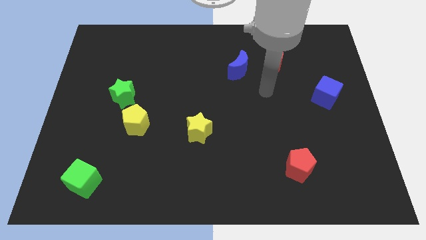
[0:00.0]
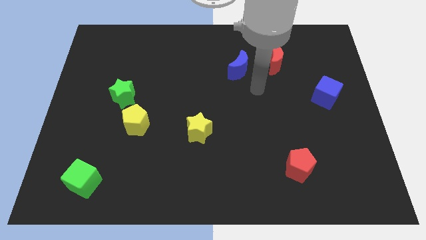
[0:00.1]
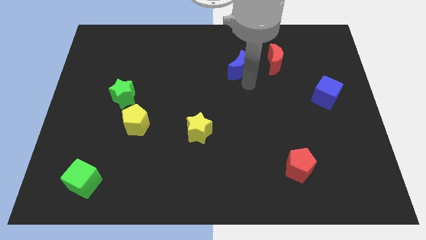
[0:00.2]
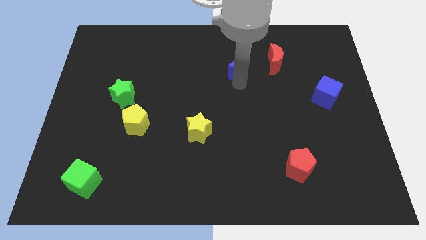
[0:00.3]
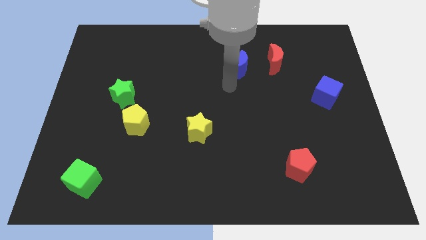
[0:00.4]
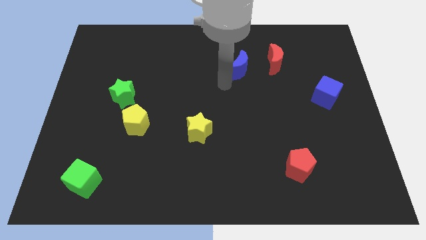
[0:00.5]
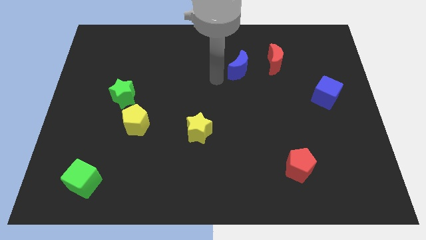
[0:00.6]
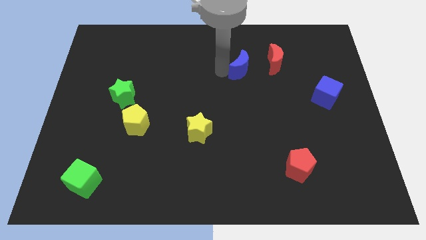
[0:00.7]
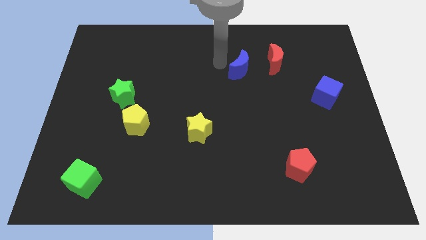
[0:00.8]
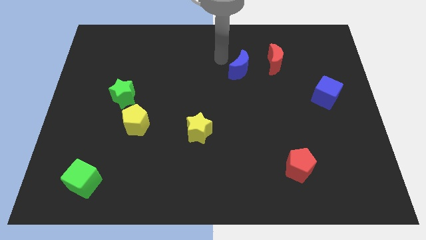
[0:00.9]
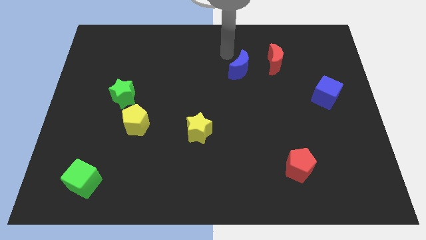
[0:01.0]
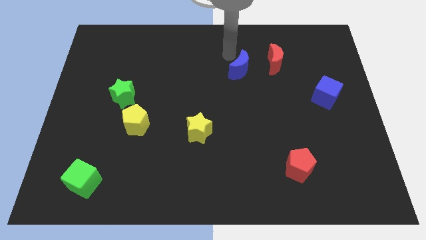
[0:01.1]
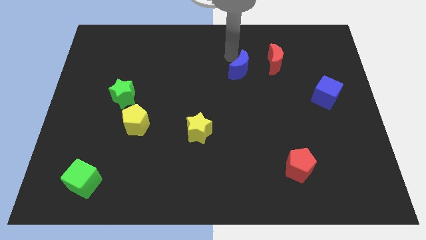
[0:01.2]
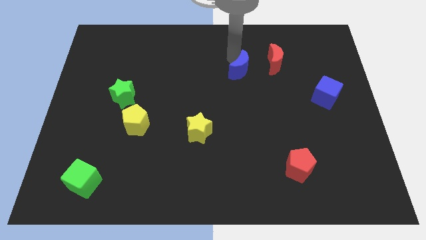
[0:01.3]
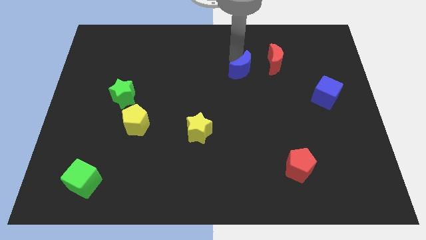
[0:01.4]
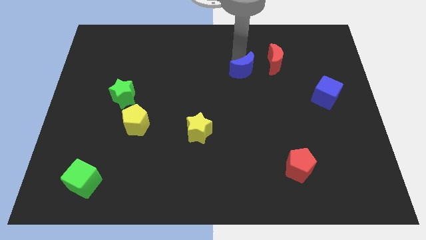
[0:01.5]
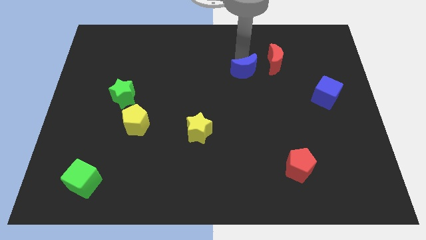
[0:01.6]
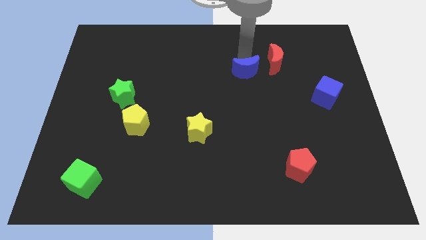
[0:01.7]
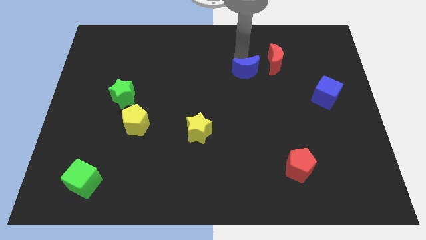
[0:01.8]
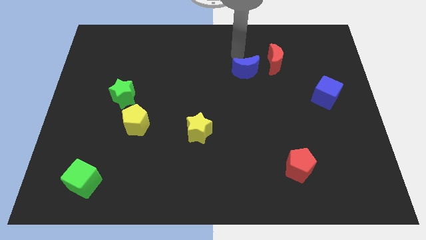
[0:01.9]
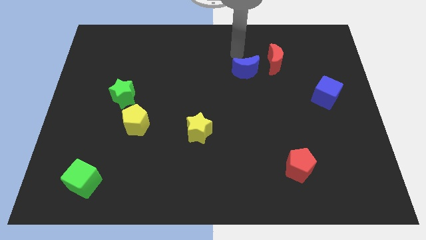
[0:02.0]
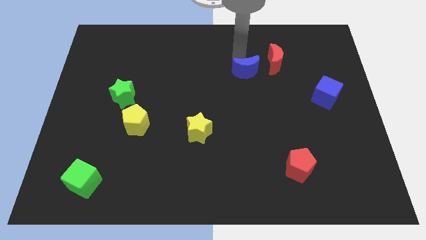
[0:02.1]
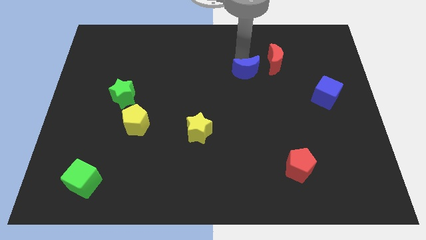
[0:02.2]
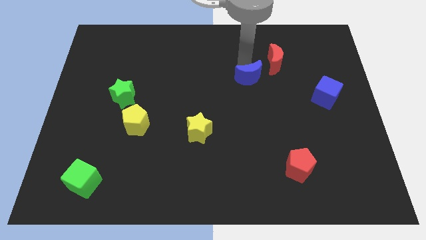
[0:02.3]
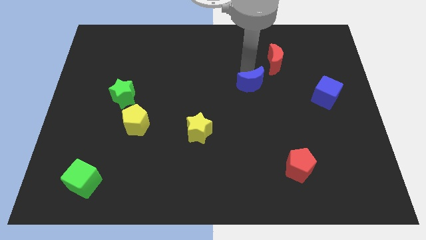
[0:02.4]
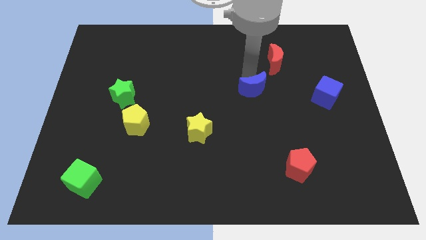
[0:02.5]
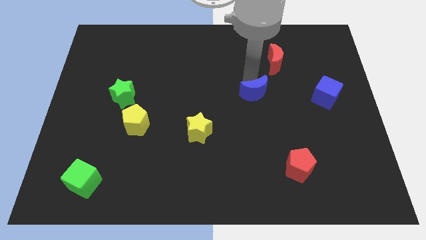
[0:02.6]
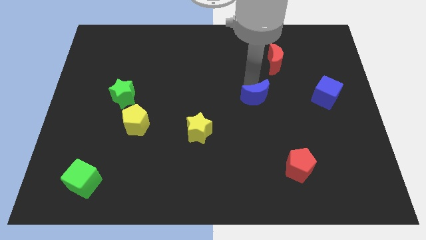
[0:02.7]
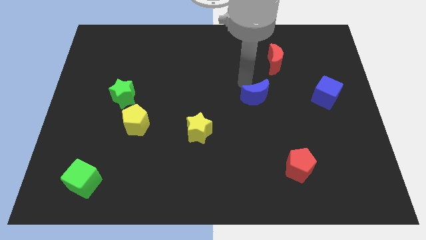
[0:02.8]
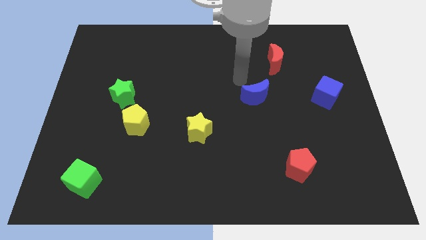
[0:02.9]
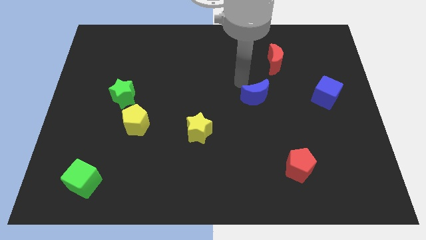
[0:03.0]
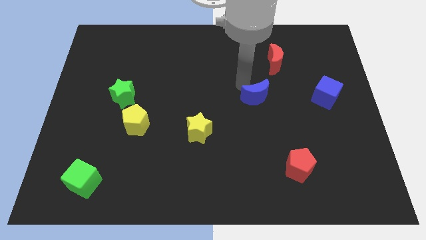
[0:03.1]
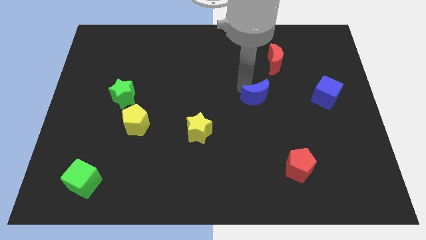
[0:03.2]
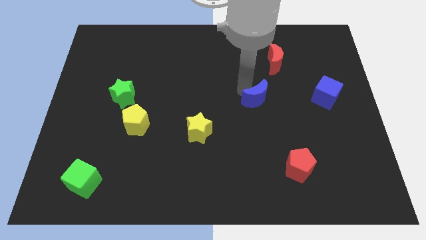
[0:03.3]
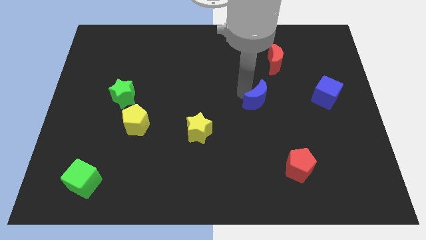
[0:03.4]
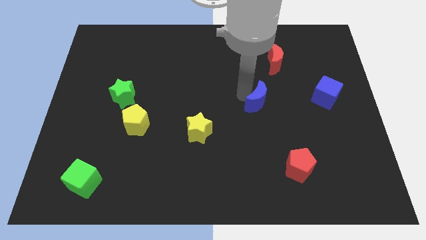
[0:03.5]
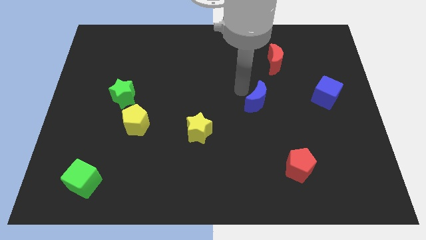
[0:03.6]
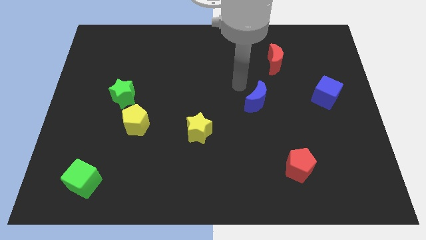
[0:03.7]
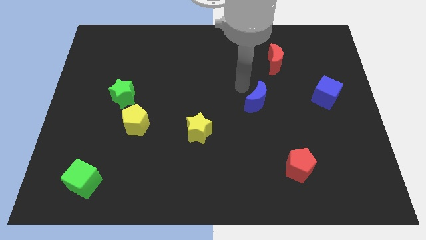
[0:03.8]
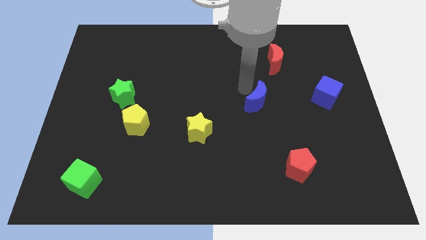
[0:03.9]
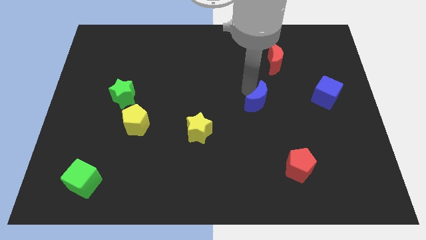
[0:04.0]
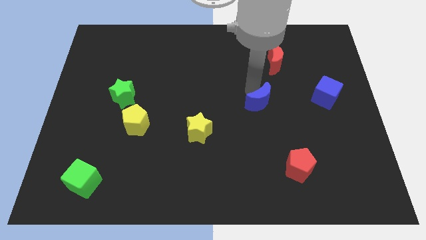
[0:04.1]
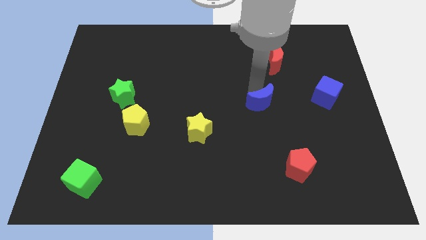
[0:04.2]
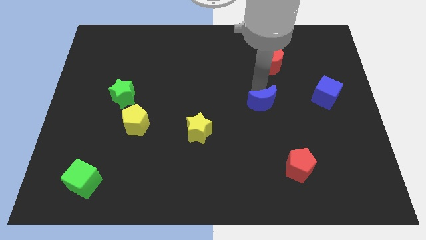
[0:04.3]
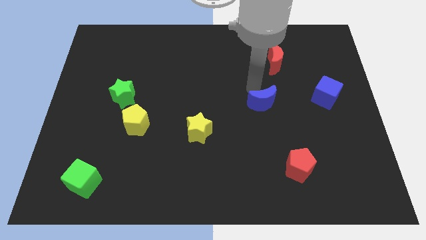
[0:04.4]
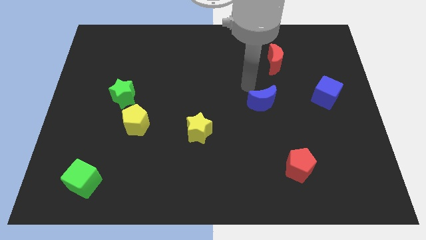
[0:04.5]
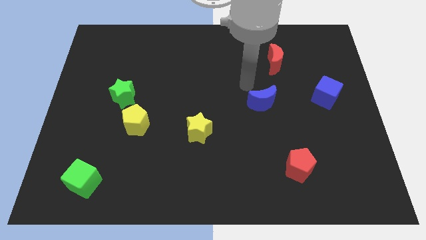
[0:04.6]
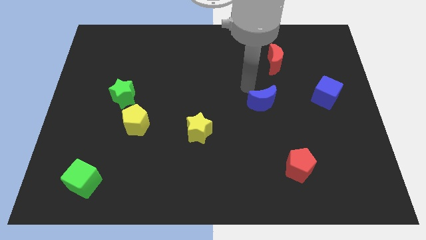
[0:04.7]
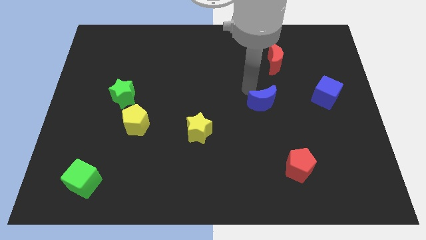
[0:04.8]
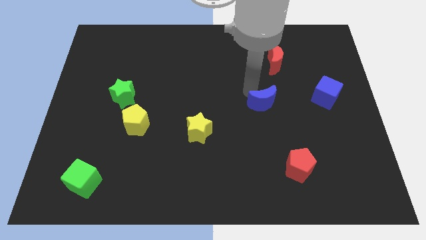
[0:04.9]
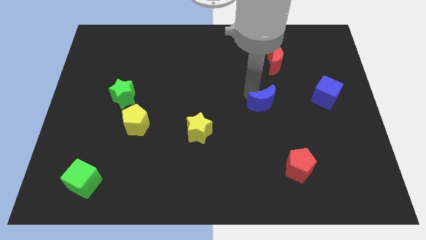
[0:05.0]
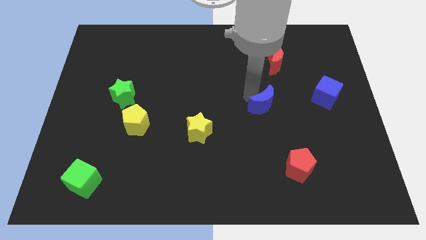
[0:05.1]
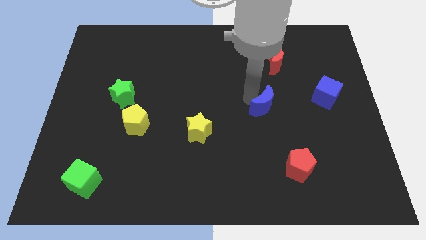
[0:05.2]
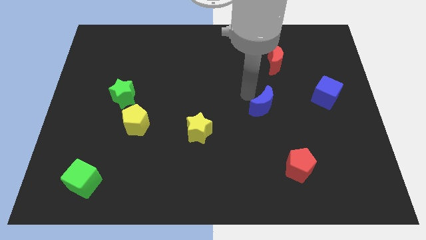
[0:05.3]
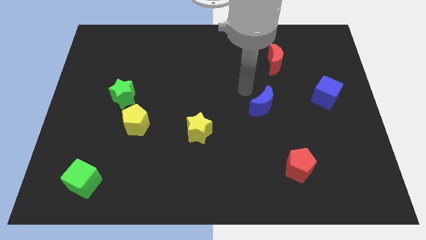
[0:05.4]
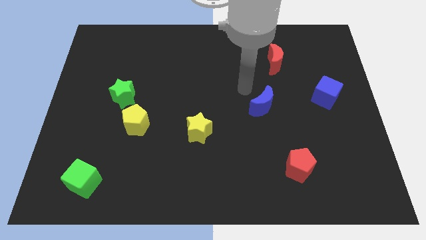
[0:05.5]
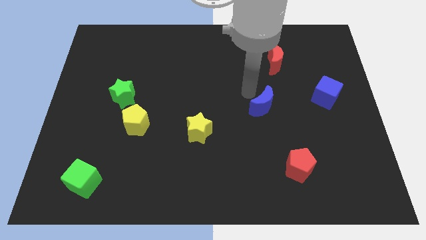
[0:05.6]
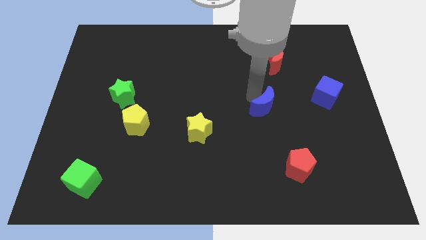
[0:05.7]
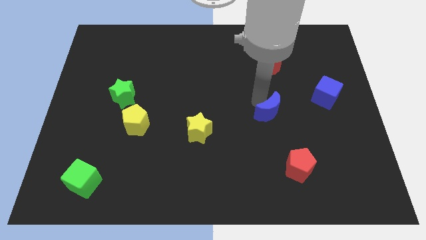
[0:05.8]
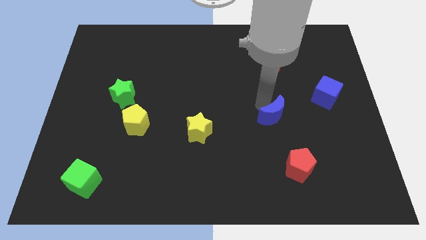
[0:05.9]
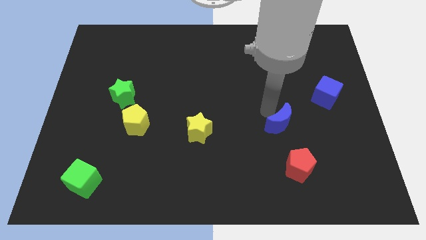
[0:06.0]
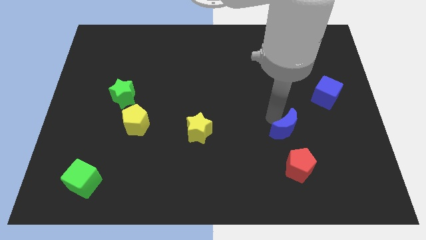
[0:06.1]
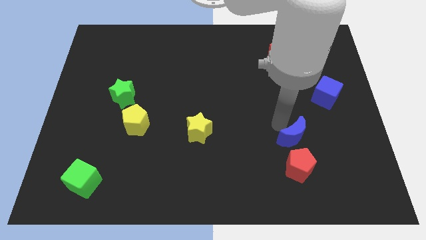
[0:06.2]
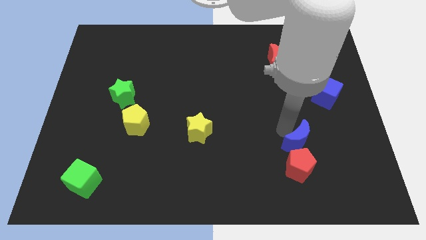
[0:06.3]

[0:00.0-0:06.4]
push the blue moon to the top right side of the red pentagon
